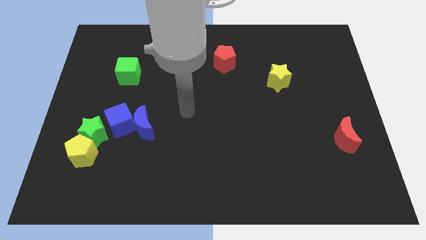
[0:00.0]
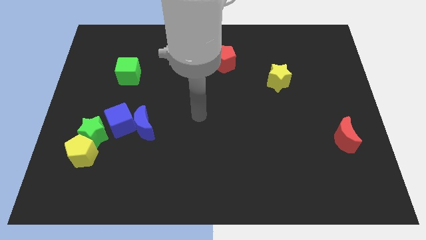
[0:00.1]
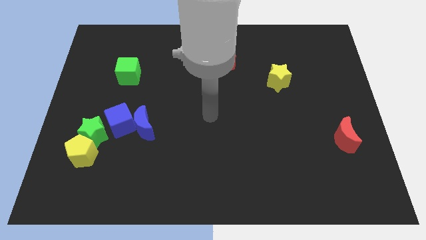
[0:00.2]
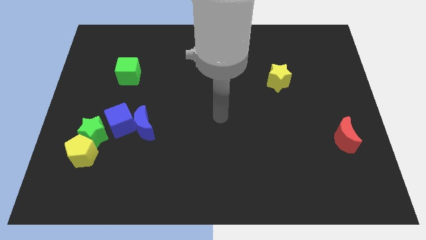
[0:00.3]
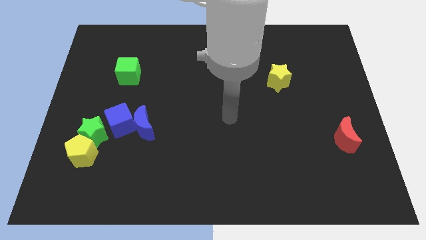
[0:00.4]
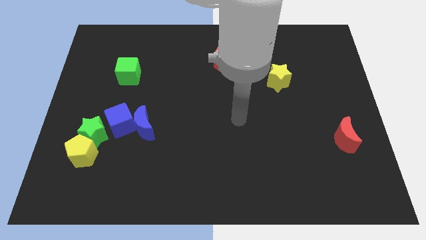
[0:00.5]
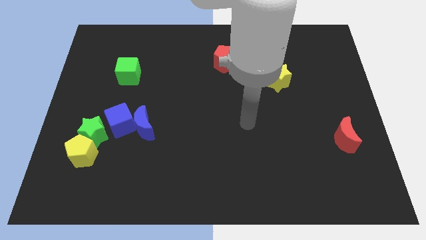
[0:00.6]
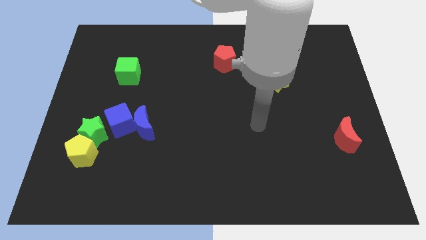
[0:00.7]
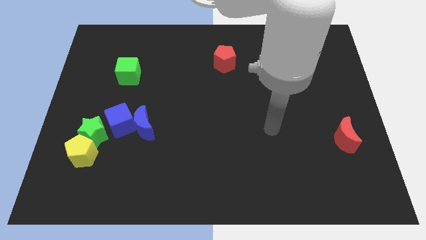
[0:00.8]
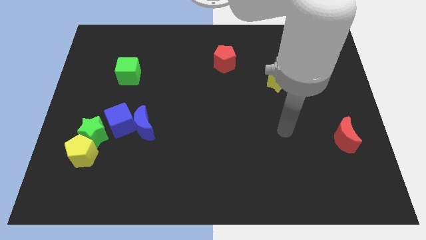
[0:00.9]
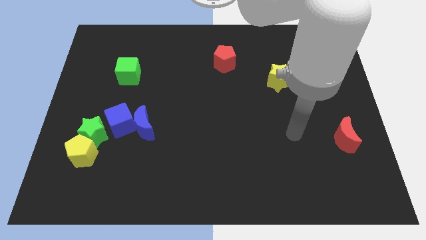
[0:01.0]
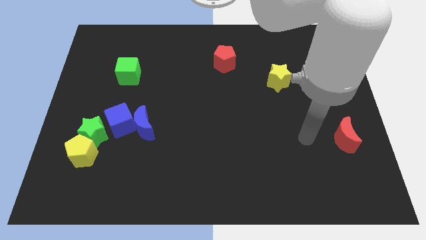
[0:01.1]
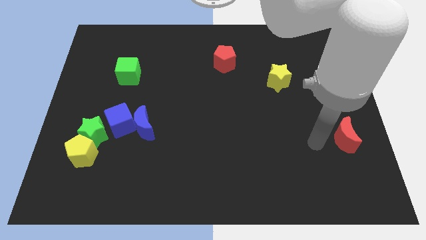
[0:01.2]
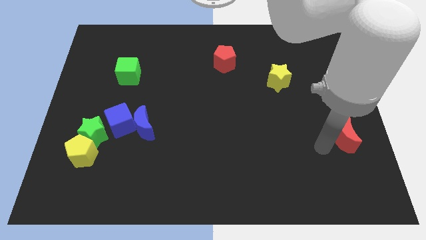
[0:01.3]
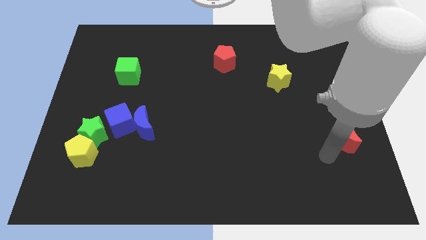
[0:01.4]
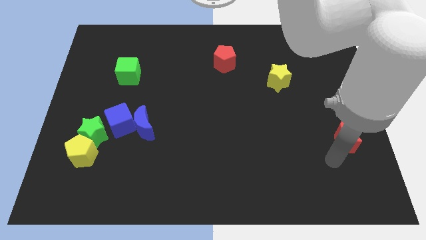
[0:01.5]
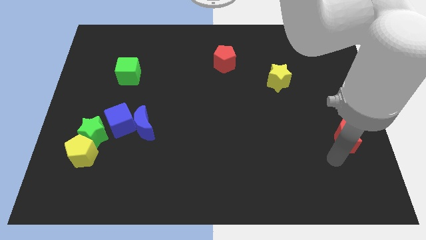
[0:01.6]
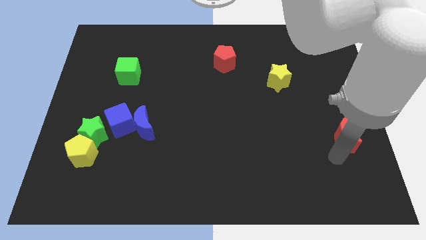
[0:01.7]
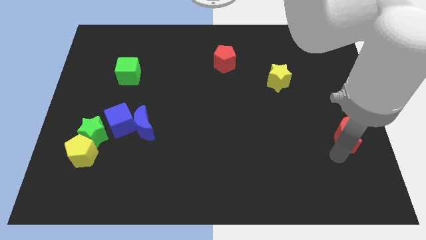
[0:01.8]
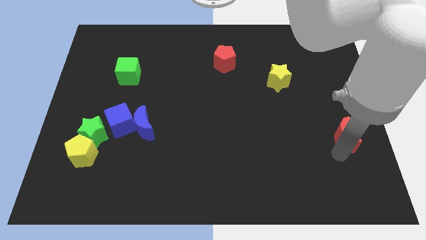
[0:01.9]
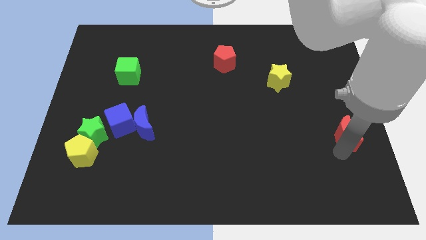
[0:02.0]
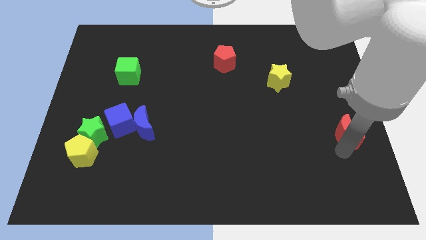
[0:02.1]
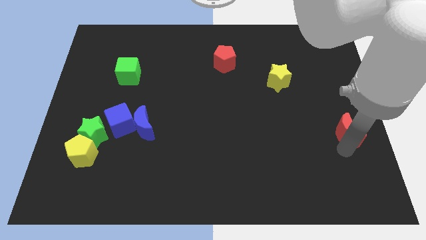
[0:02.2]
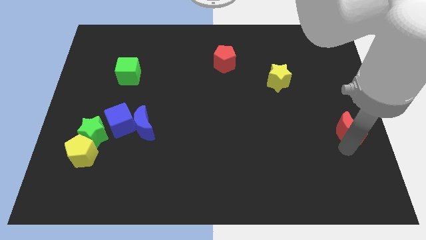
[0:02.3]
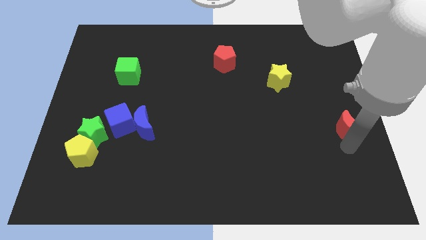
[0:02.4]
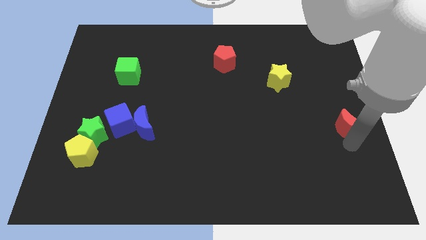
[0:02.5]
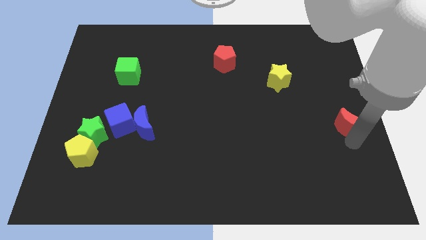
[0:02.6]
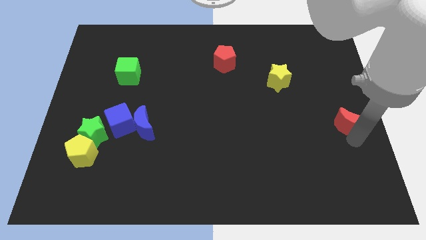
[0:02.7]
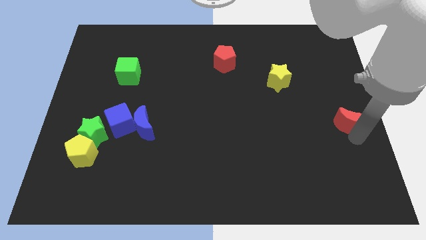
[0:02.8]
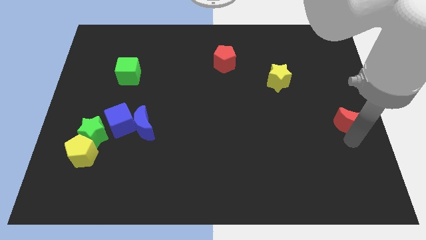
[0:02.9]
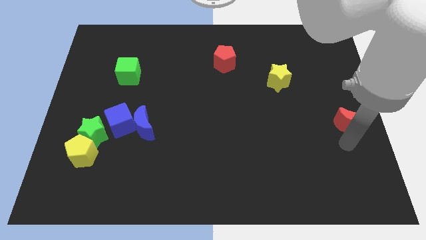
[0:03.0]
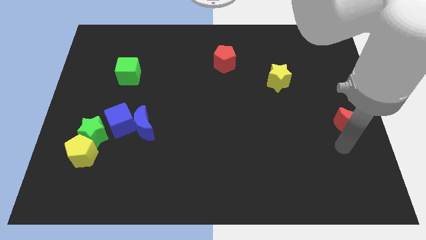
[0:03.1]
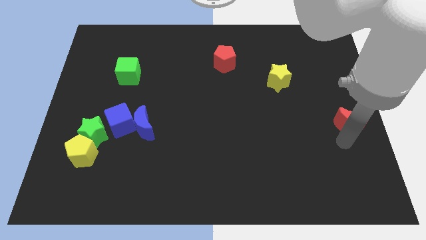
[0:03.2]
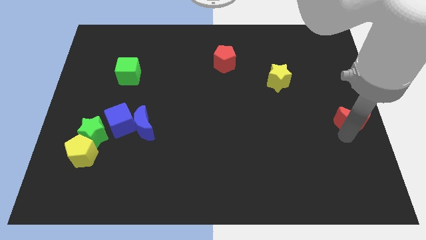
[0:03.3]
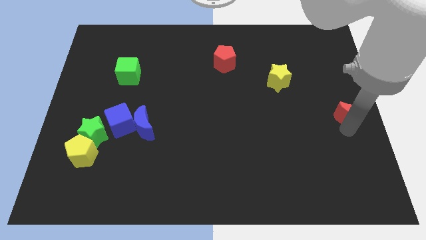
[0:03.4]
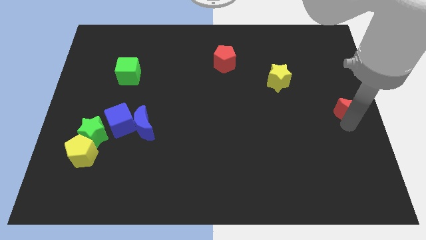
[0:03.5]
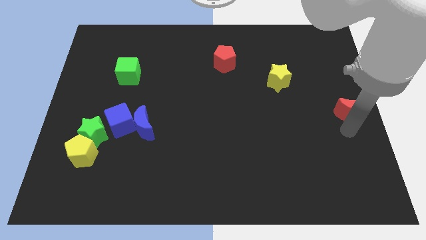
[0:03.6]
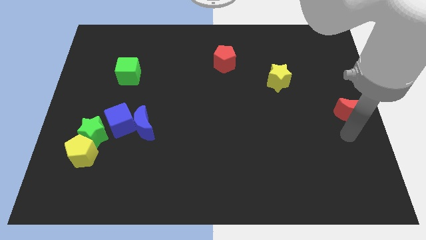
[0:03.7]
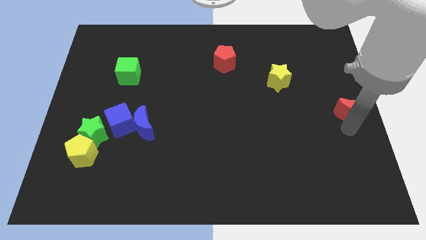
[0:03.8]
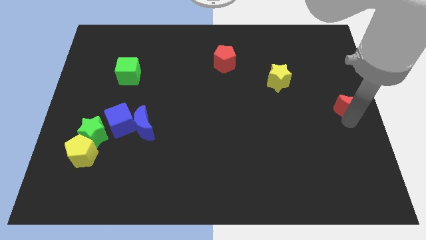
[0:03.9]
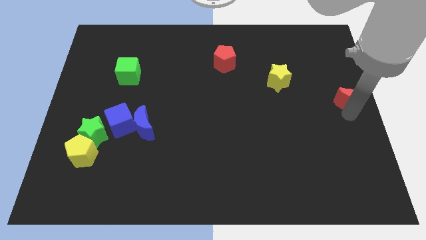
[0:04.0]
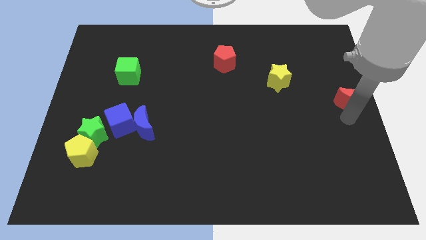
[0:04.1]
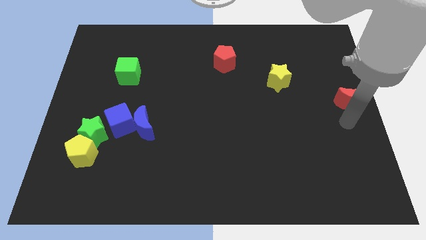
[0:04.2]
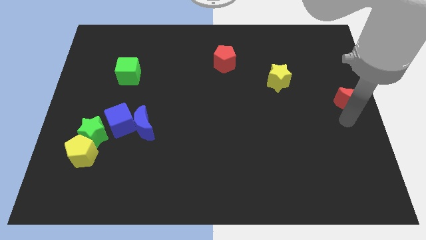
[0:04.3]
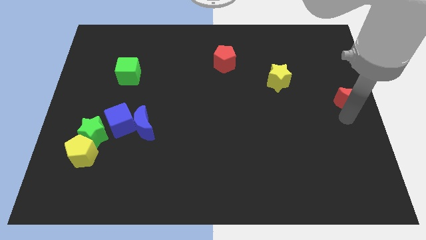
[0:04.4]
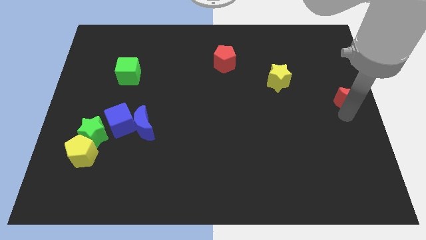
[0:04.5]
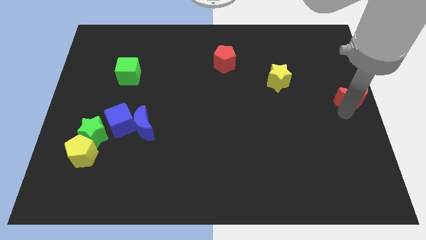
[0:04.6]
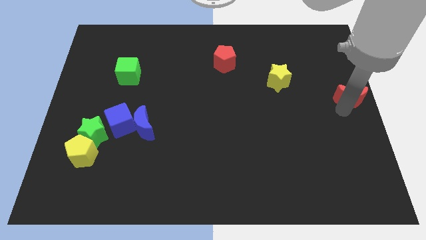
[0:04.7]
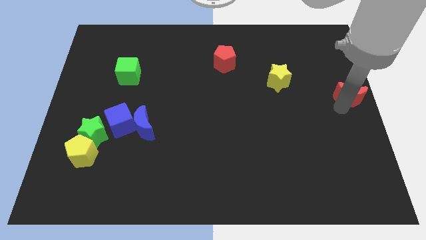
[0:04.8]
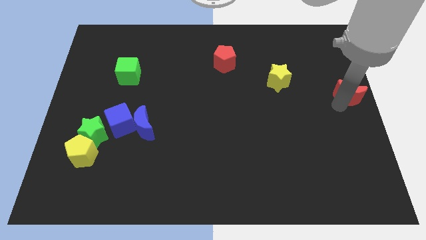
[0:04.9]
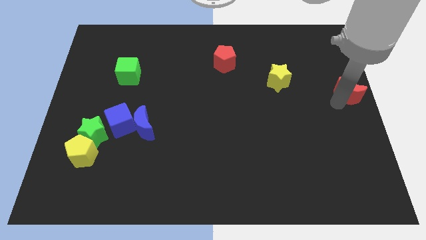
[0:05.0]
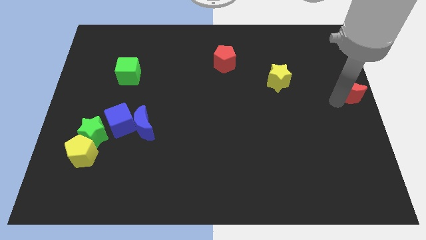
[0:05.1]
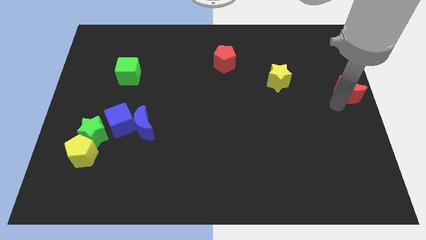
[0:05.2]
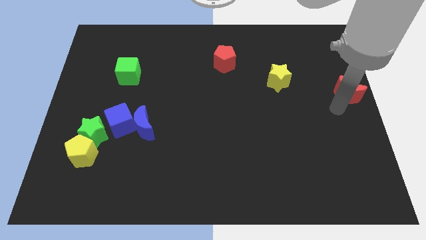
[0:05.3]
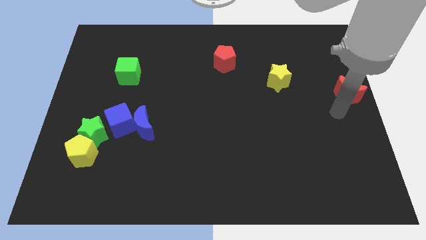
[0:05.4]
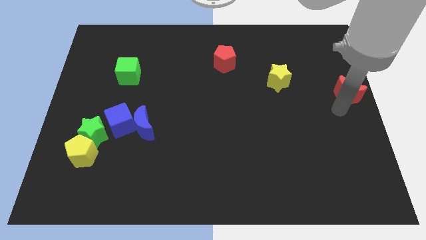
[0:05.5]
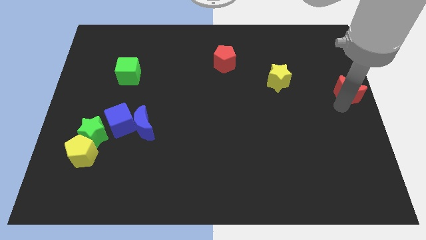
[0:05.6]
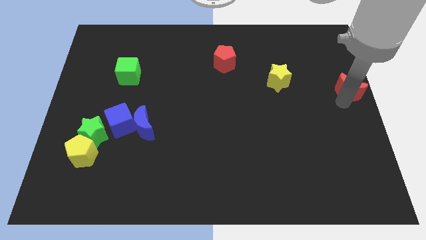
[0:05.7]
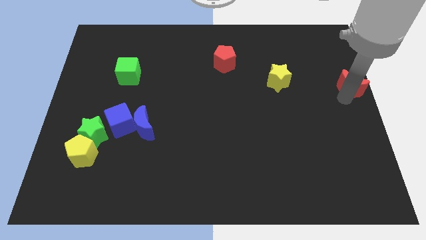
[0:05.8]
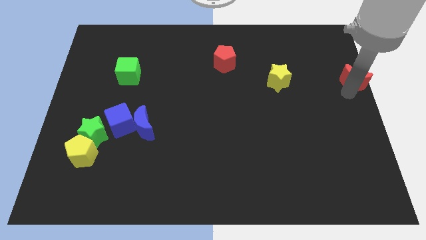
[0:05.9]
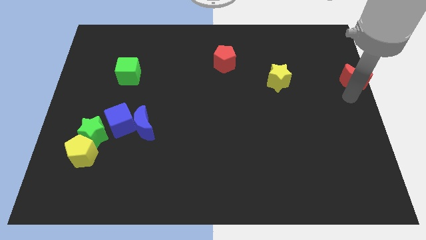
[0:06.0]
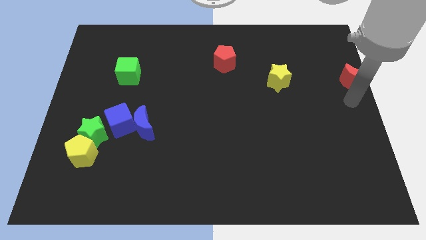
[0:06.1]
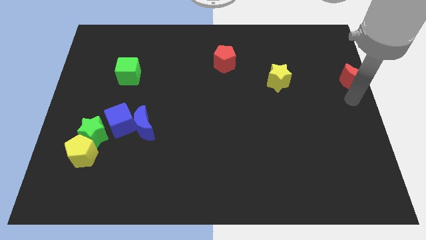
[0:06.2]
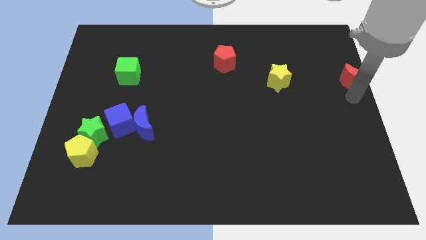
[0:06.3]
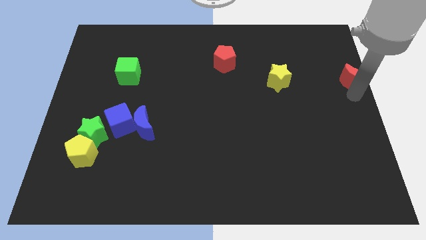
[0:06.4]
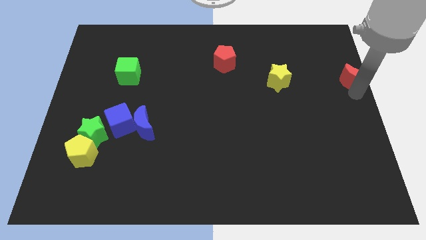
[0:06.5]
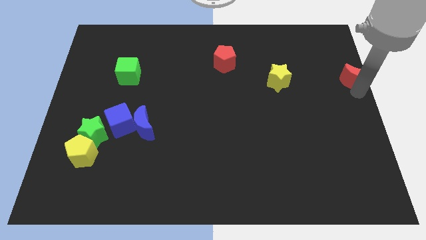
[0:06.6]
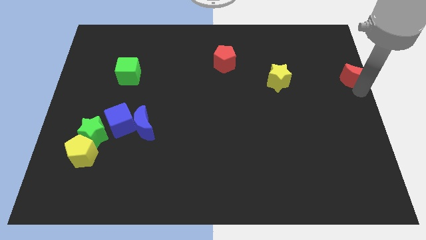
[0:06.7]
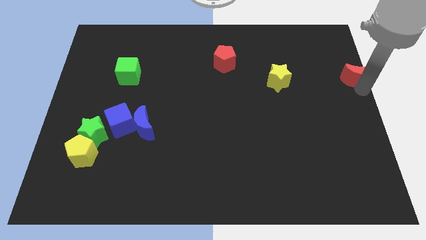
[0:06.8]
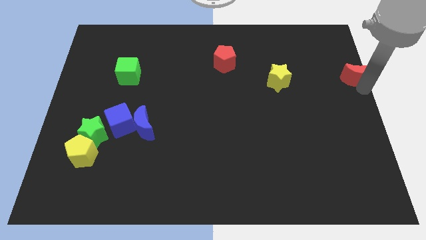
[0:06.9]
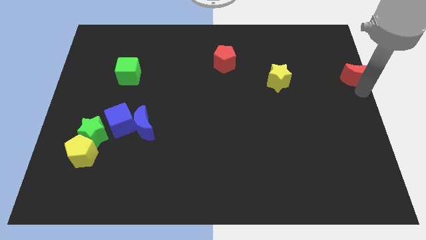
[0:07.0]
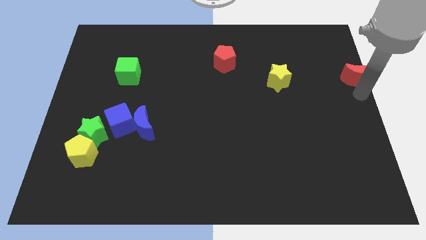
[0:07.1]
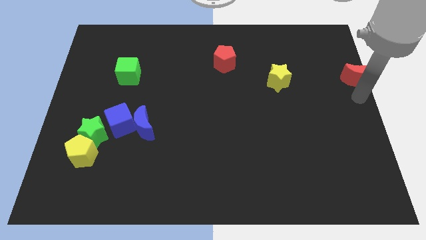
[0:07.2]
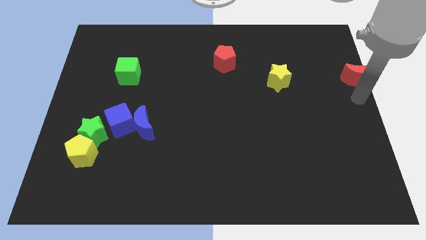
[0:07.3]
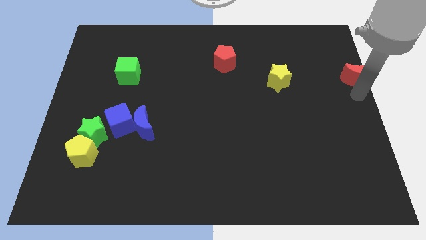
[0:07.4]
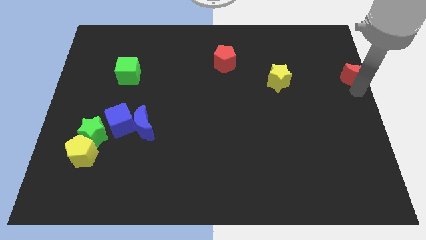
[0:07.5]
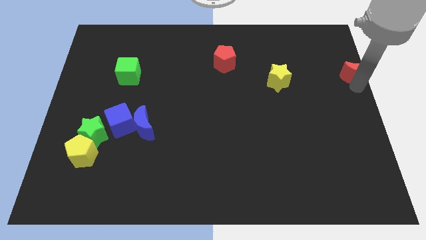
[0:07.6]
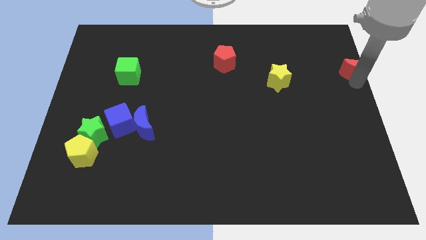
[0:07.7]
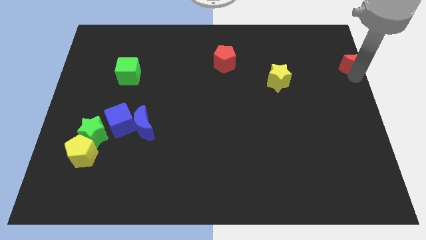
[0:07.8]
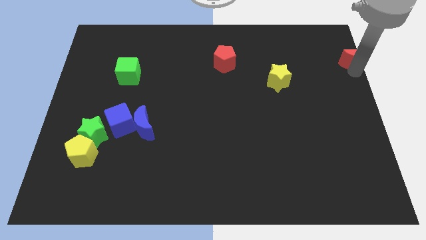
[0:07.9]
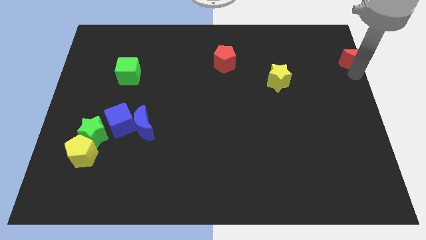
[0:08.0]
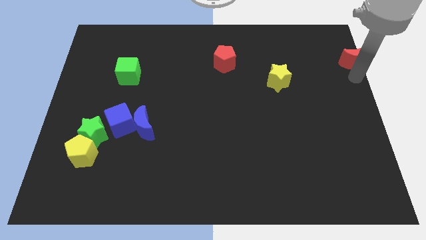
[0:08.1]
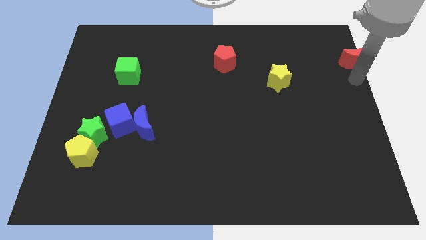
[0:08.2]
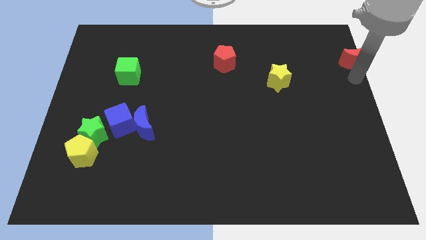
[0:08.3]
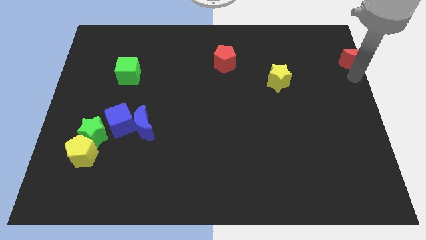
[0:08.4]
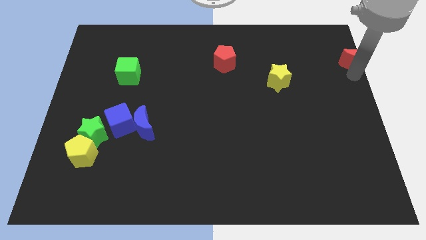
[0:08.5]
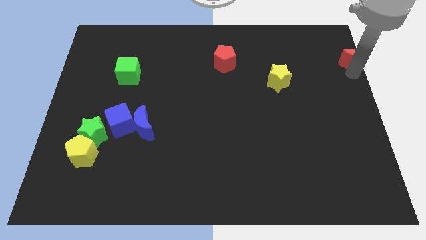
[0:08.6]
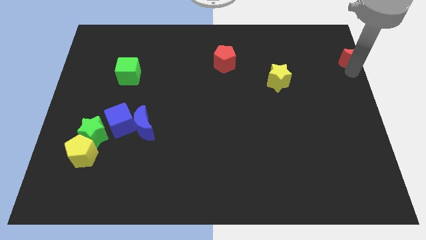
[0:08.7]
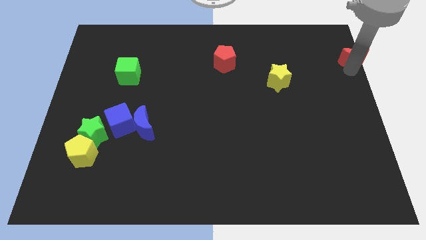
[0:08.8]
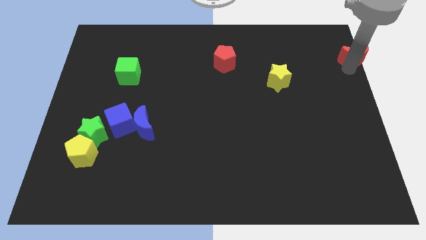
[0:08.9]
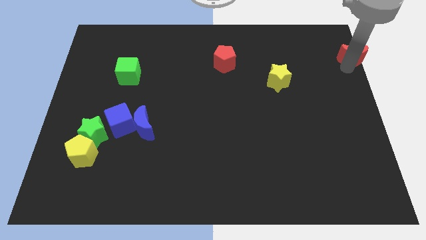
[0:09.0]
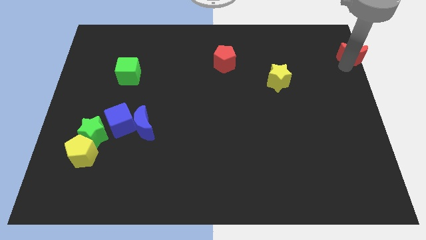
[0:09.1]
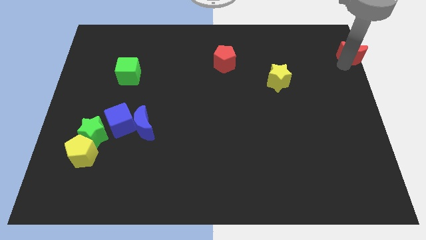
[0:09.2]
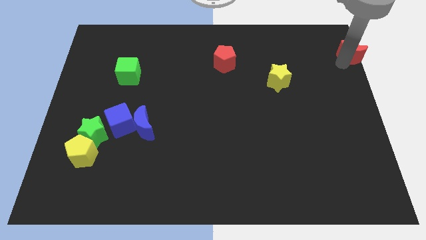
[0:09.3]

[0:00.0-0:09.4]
push the red moon to the top right of the board
